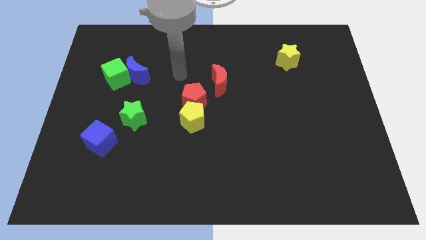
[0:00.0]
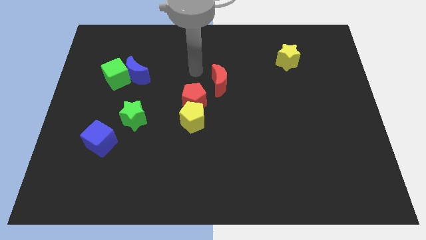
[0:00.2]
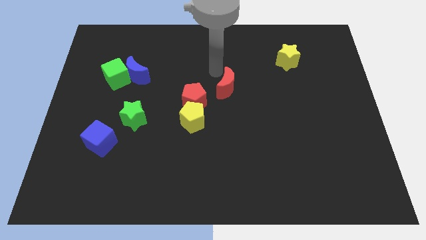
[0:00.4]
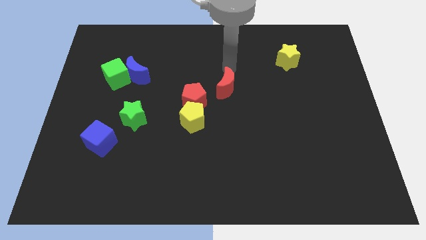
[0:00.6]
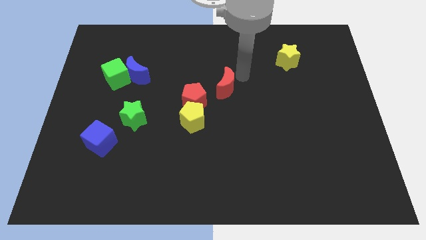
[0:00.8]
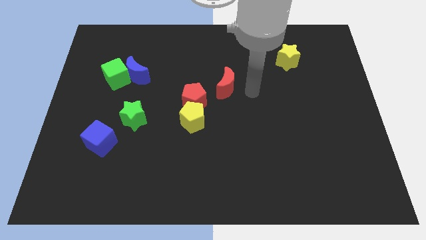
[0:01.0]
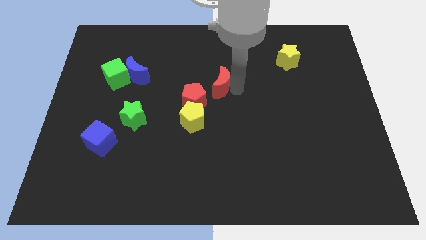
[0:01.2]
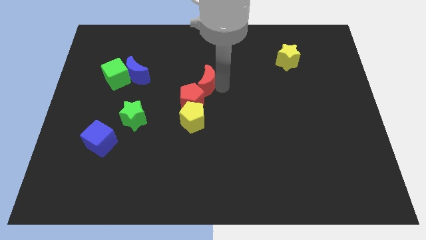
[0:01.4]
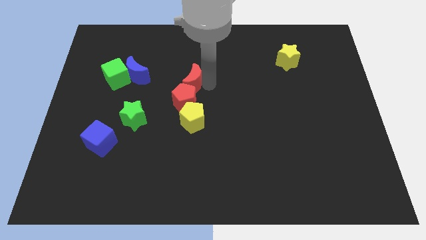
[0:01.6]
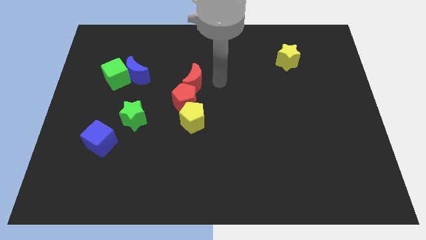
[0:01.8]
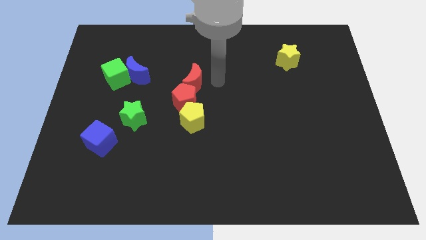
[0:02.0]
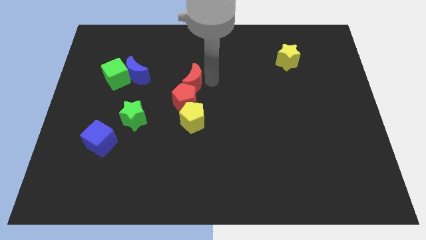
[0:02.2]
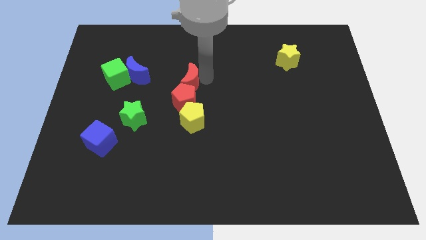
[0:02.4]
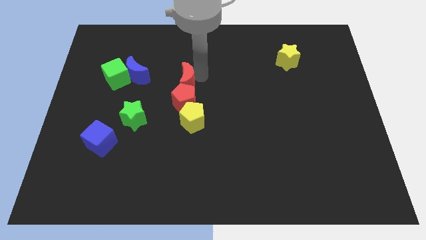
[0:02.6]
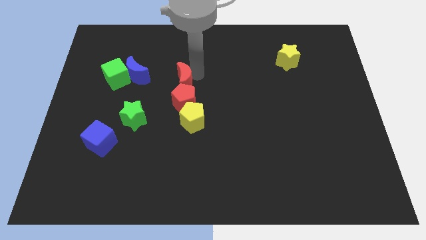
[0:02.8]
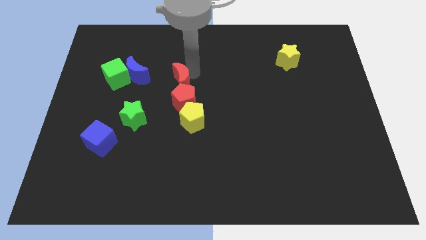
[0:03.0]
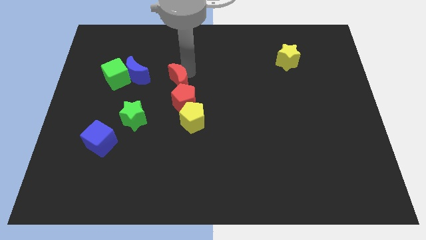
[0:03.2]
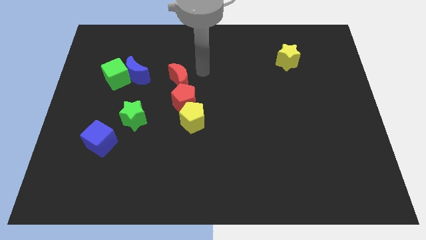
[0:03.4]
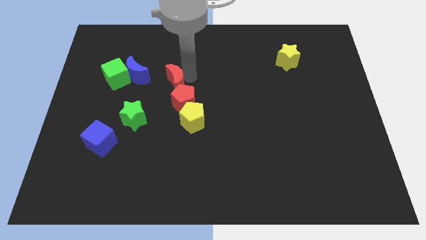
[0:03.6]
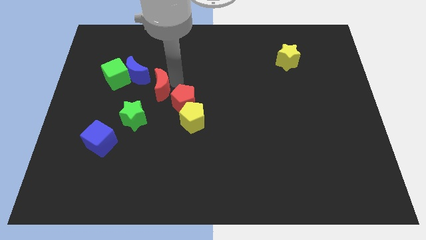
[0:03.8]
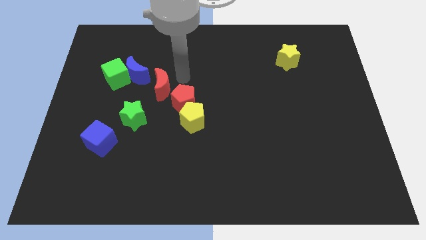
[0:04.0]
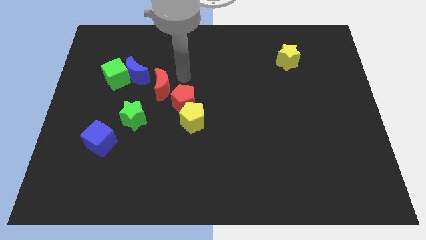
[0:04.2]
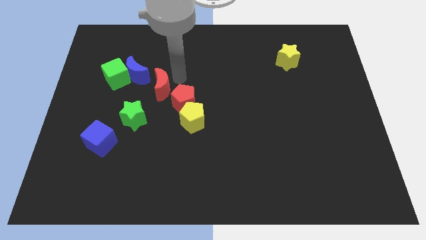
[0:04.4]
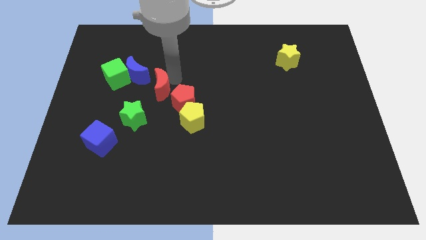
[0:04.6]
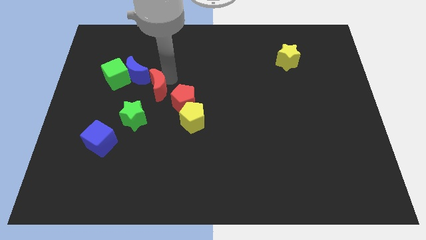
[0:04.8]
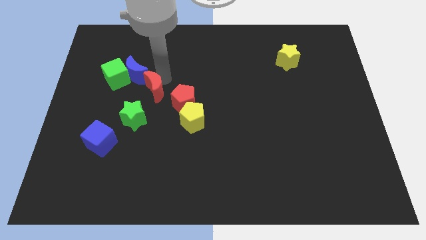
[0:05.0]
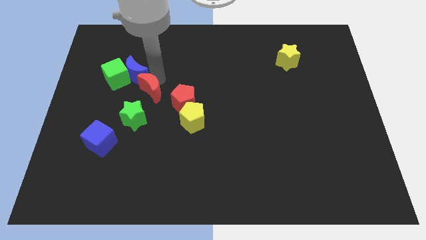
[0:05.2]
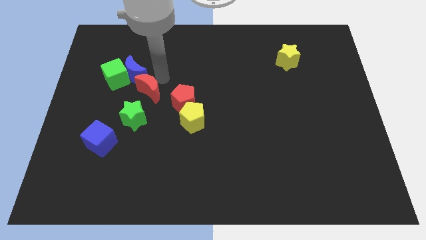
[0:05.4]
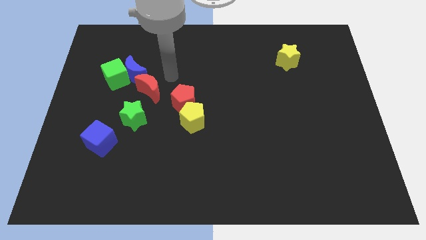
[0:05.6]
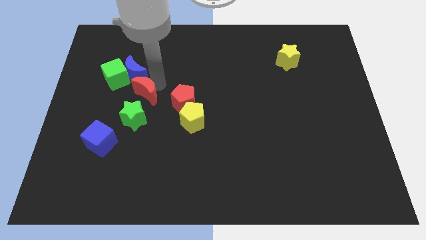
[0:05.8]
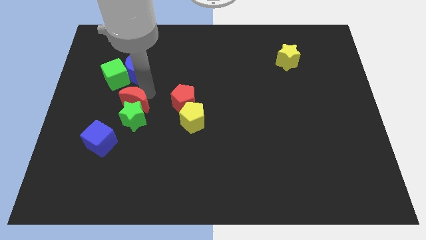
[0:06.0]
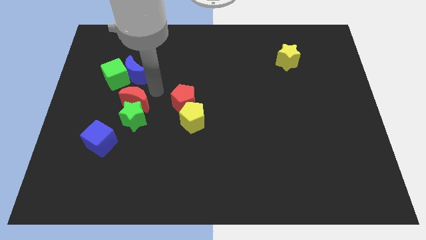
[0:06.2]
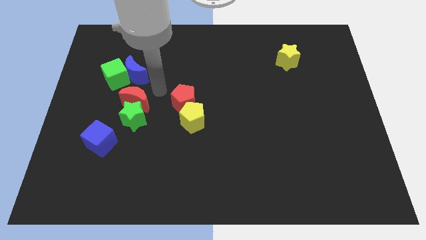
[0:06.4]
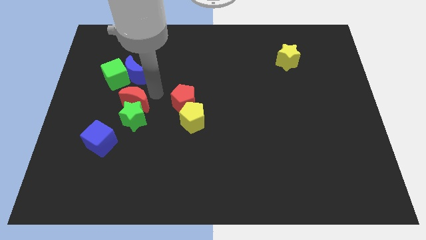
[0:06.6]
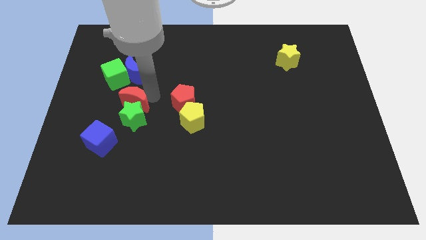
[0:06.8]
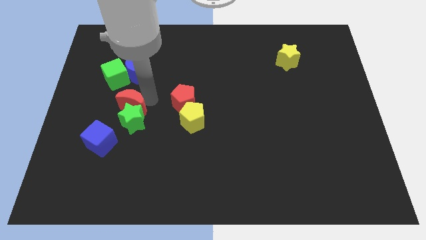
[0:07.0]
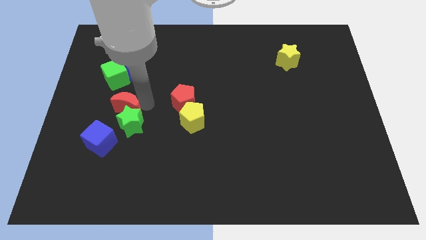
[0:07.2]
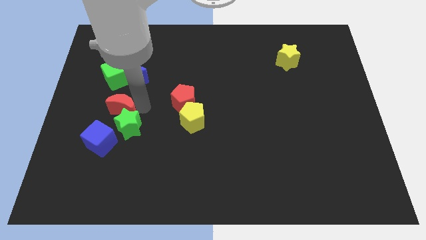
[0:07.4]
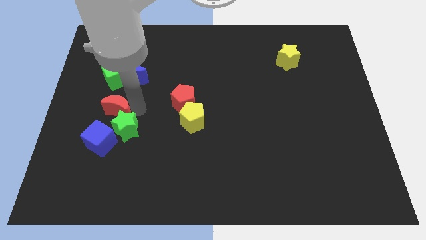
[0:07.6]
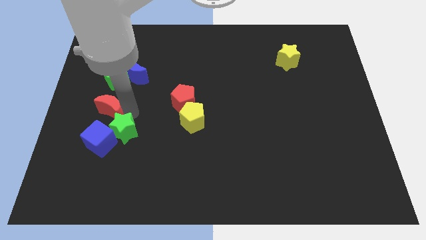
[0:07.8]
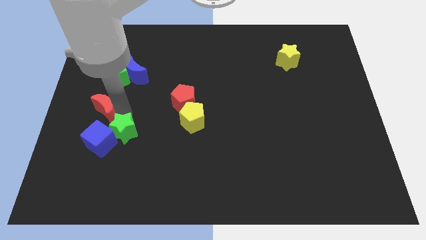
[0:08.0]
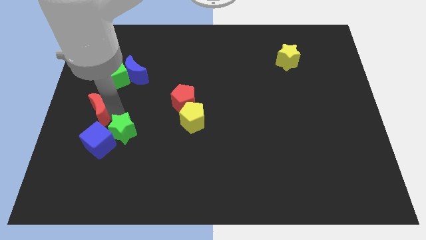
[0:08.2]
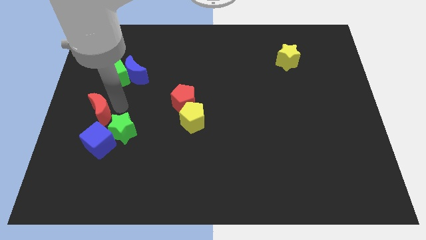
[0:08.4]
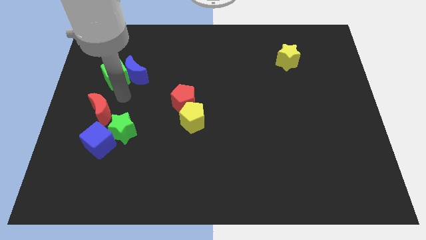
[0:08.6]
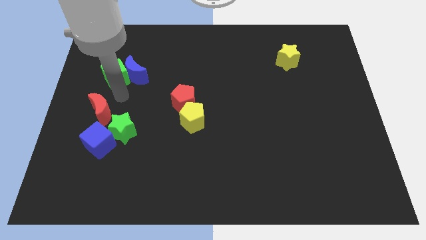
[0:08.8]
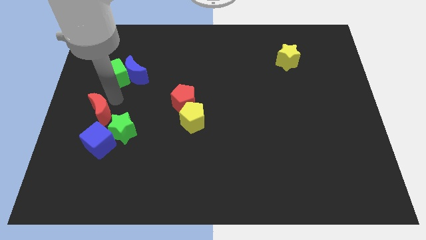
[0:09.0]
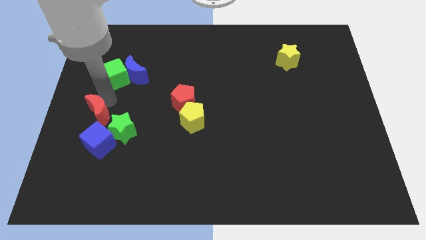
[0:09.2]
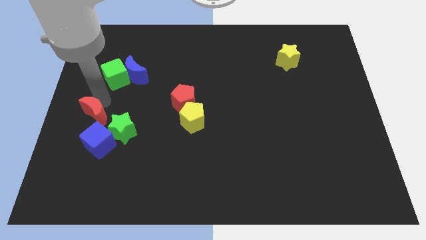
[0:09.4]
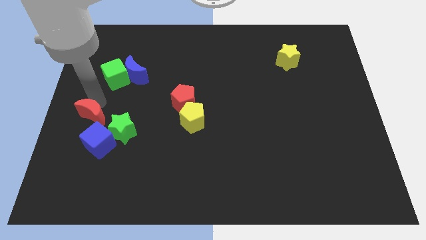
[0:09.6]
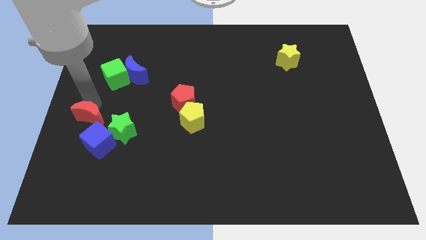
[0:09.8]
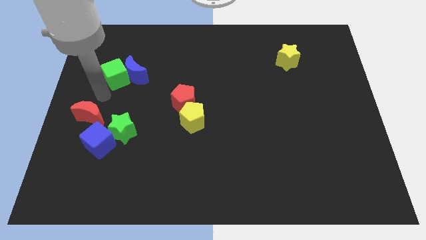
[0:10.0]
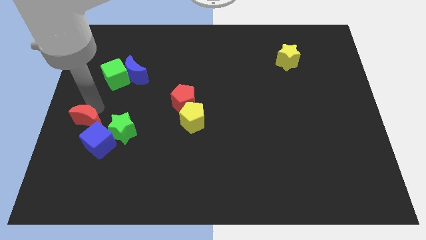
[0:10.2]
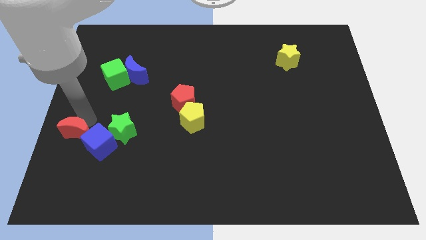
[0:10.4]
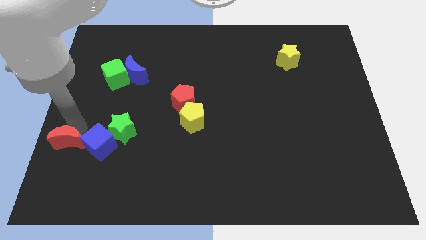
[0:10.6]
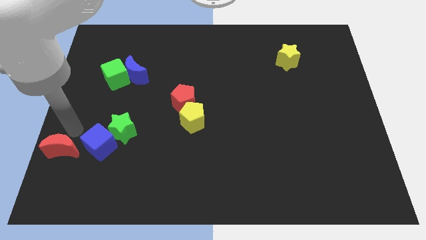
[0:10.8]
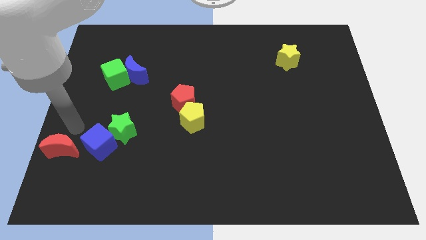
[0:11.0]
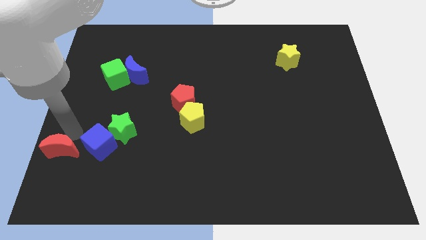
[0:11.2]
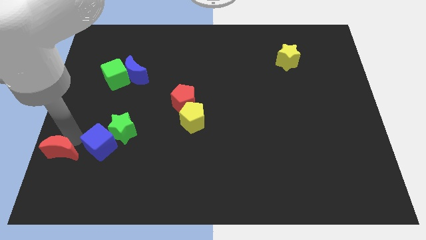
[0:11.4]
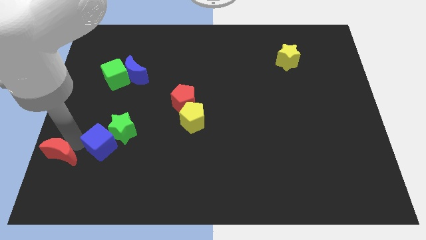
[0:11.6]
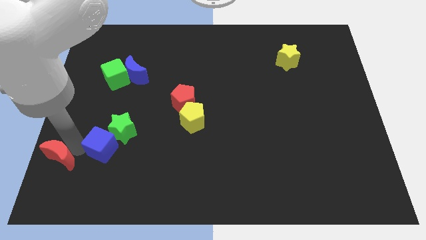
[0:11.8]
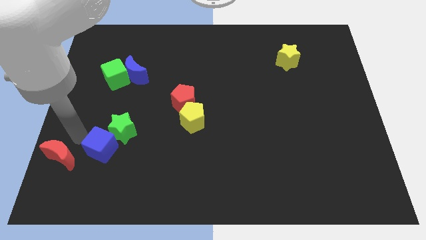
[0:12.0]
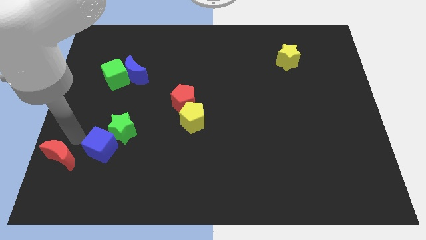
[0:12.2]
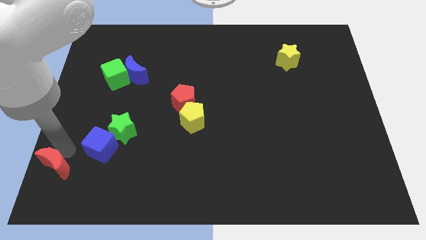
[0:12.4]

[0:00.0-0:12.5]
slide the red moon to the lower left corner
